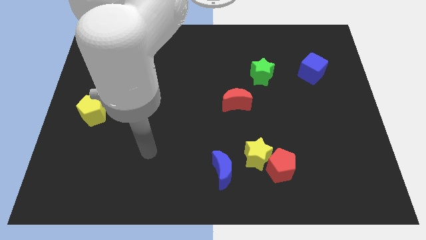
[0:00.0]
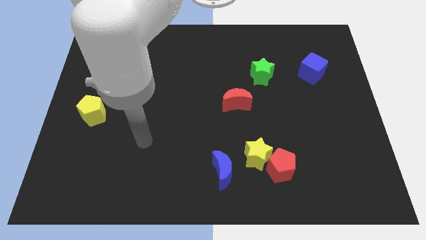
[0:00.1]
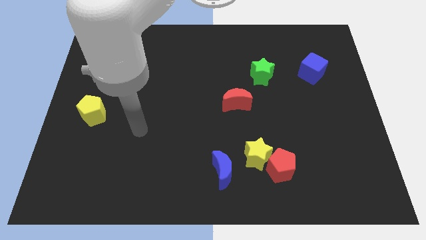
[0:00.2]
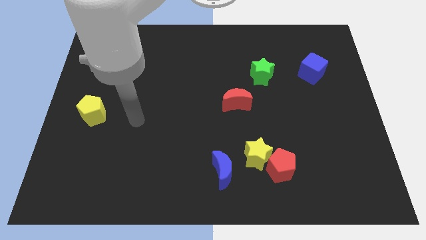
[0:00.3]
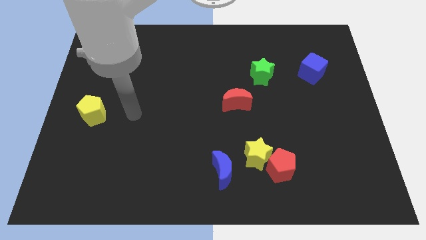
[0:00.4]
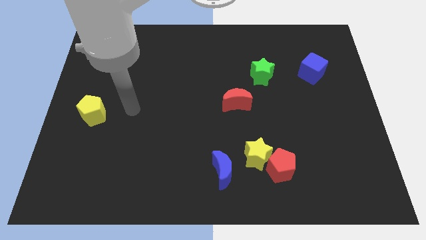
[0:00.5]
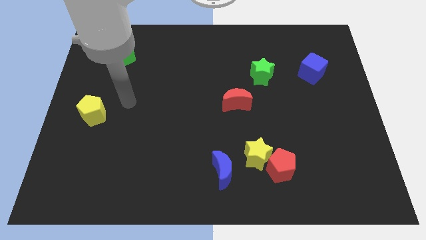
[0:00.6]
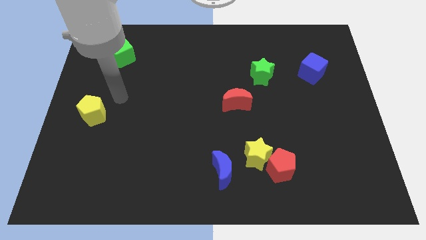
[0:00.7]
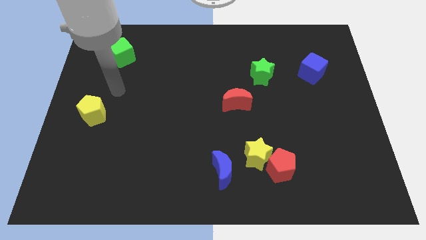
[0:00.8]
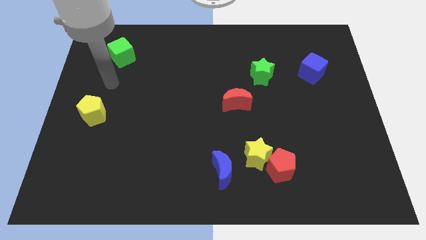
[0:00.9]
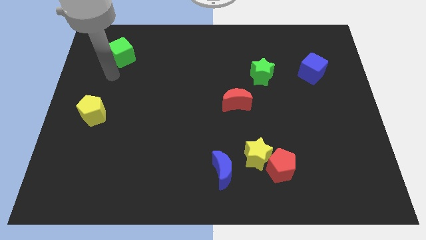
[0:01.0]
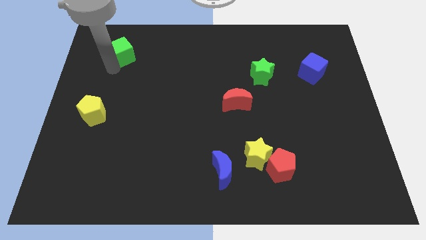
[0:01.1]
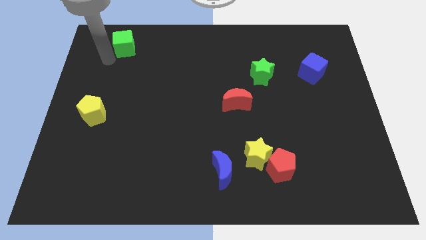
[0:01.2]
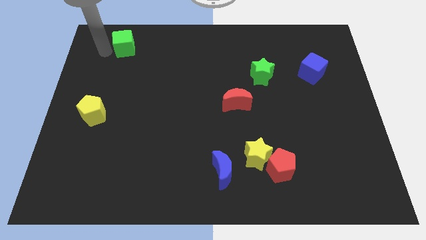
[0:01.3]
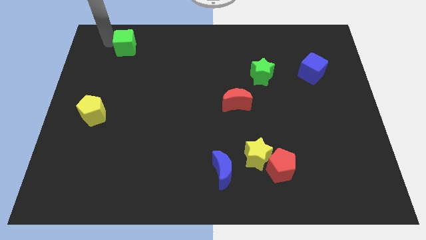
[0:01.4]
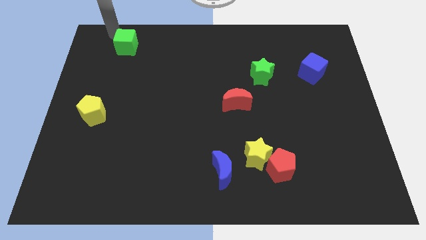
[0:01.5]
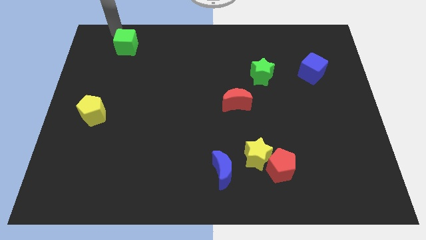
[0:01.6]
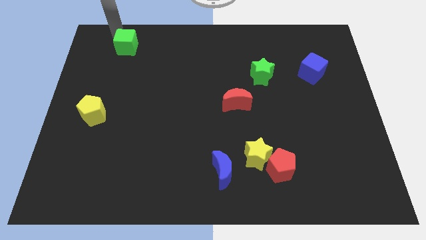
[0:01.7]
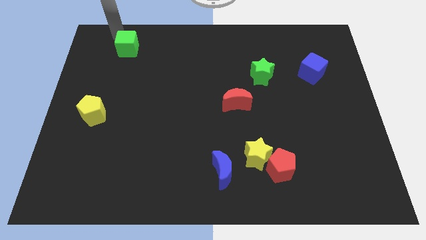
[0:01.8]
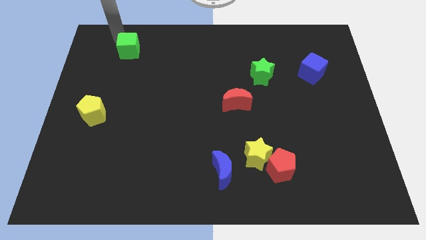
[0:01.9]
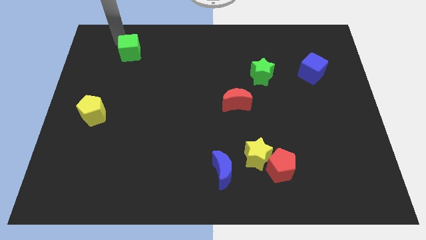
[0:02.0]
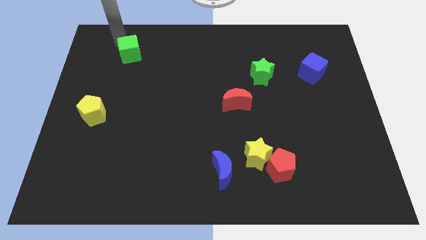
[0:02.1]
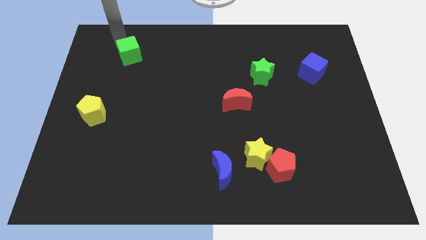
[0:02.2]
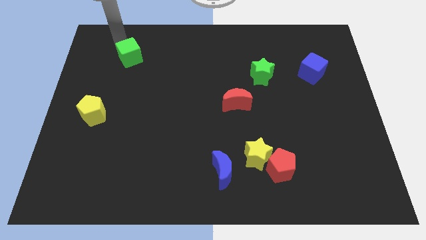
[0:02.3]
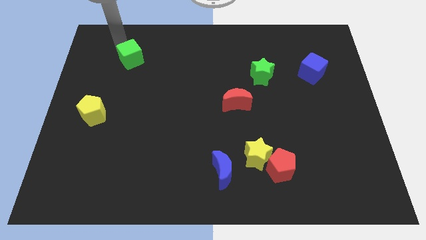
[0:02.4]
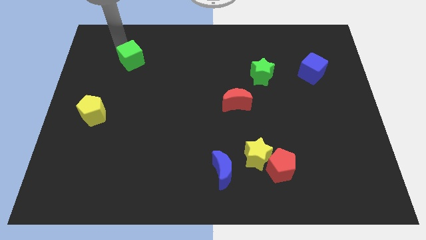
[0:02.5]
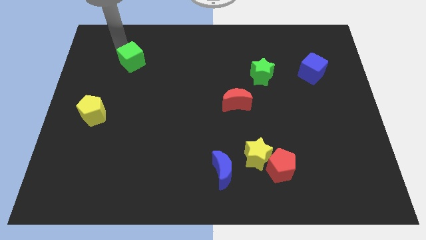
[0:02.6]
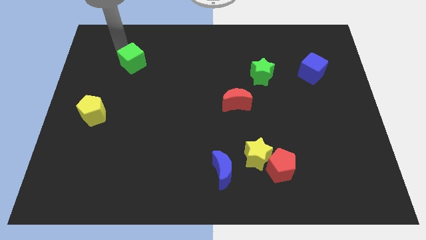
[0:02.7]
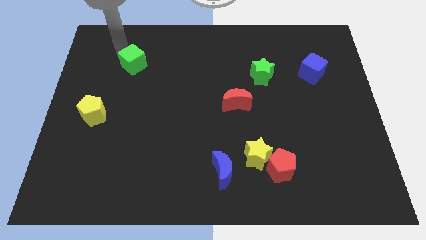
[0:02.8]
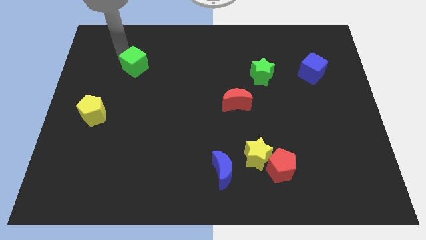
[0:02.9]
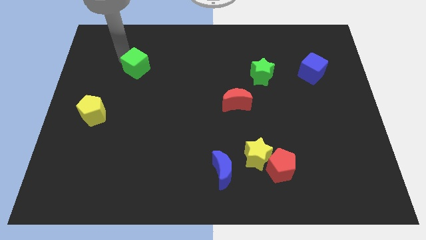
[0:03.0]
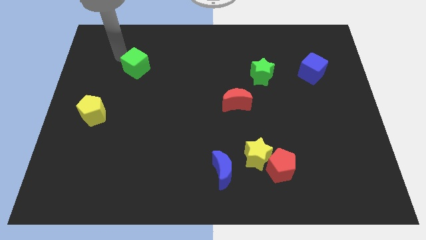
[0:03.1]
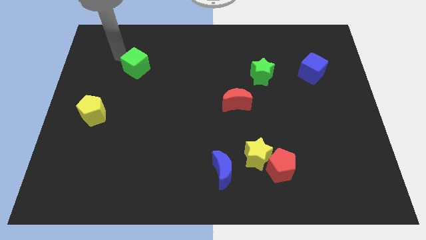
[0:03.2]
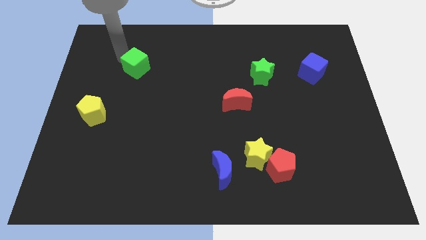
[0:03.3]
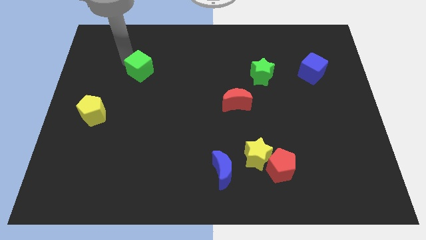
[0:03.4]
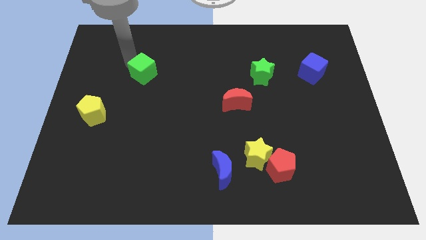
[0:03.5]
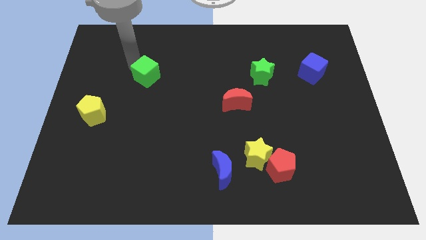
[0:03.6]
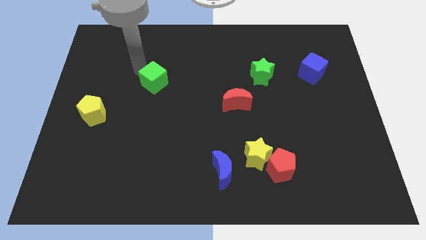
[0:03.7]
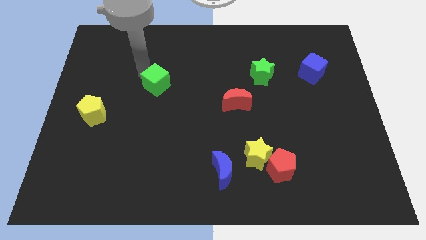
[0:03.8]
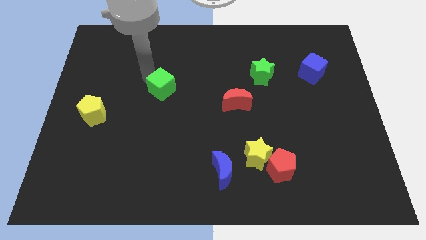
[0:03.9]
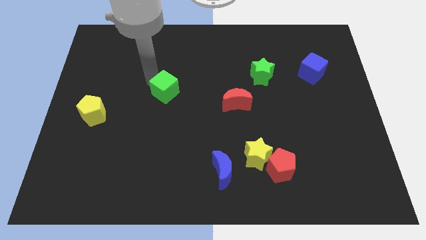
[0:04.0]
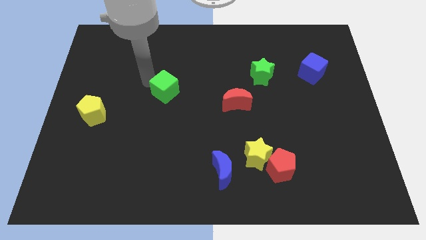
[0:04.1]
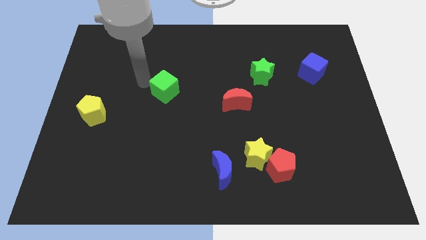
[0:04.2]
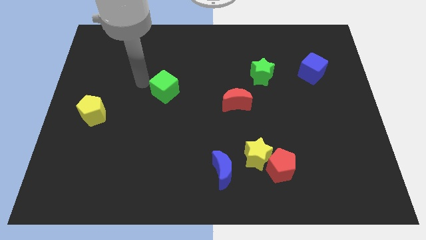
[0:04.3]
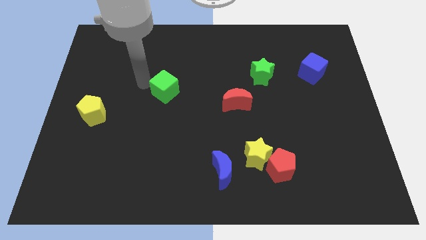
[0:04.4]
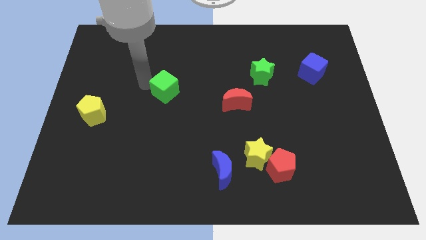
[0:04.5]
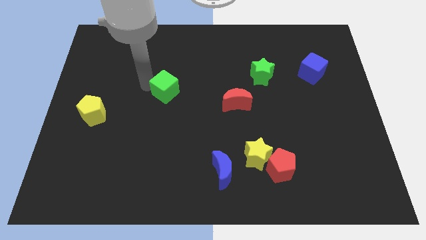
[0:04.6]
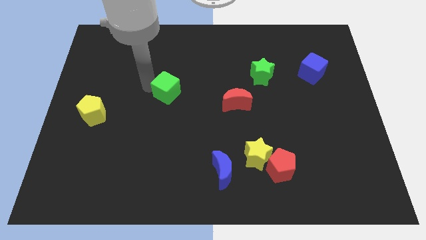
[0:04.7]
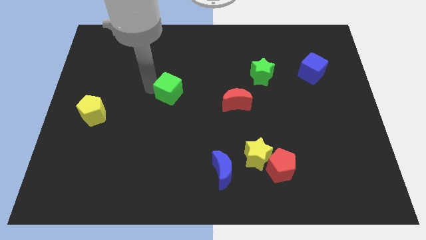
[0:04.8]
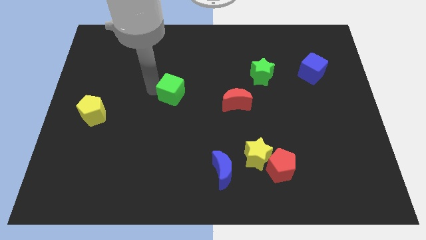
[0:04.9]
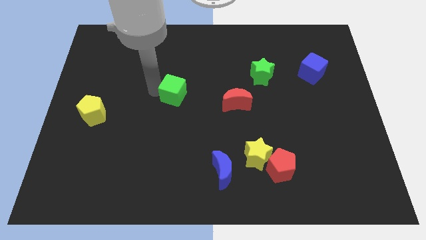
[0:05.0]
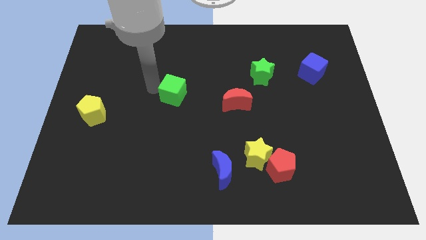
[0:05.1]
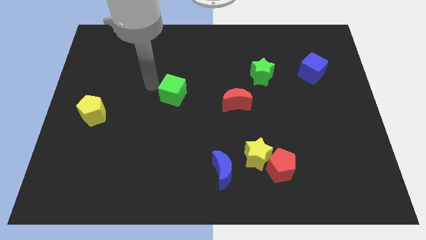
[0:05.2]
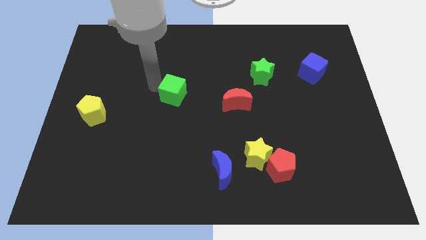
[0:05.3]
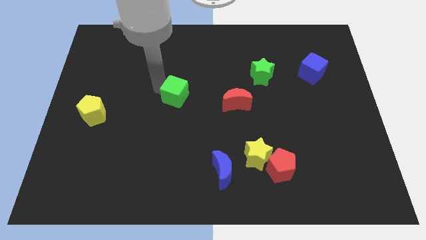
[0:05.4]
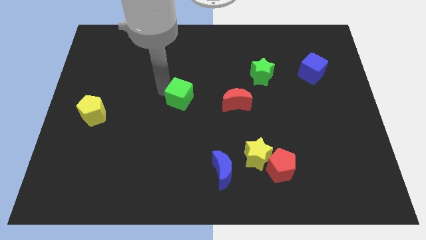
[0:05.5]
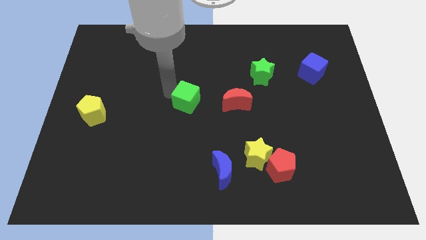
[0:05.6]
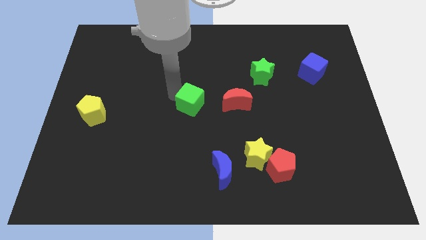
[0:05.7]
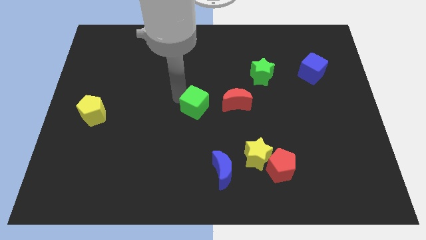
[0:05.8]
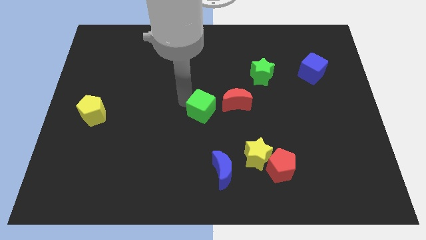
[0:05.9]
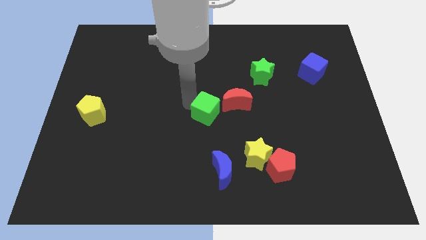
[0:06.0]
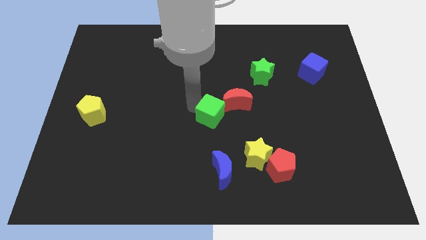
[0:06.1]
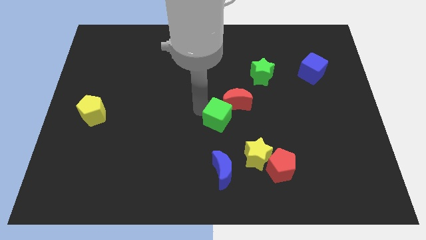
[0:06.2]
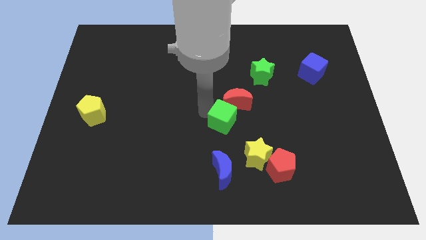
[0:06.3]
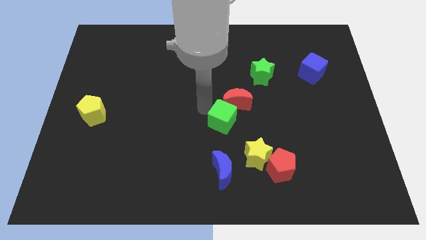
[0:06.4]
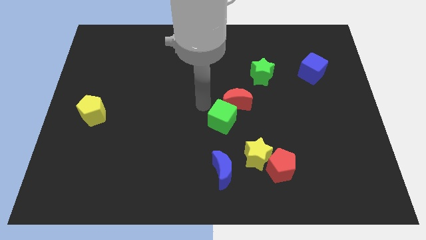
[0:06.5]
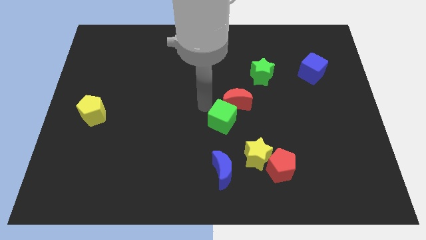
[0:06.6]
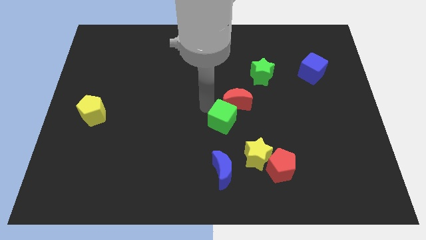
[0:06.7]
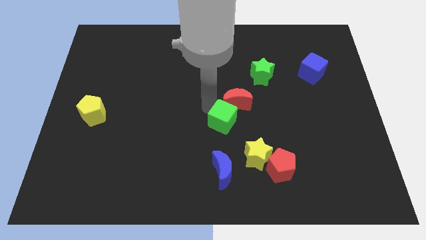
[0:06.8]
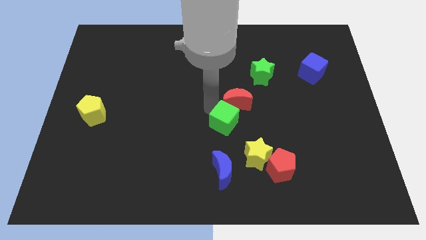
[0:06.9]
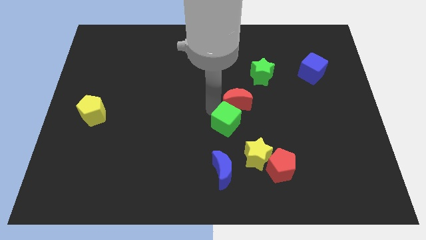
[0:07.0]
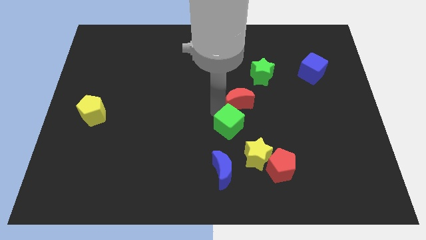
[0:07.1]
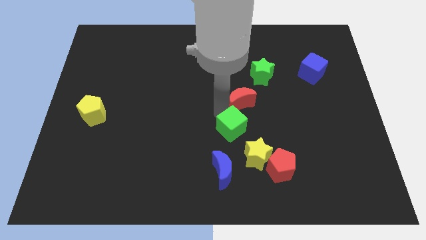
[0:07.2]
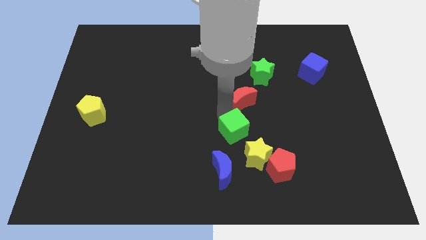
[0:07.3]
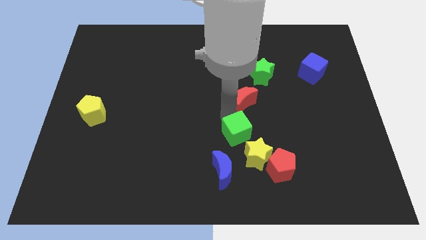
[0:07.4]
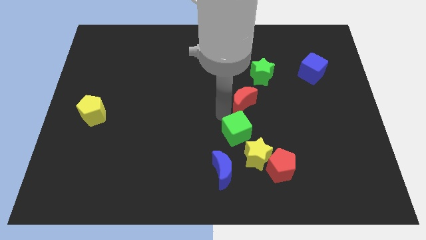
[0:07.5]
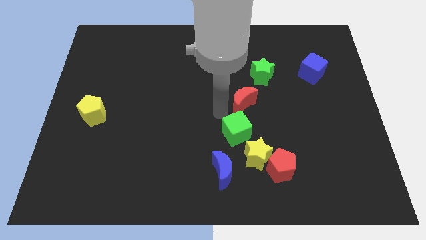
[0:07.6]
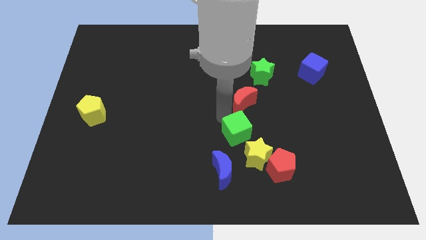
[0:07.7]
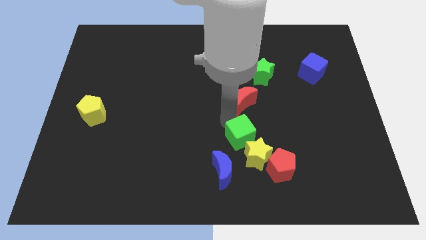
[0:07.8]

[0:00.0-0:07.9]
push the green cube close to the yellow star
